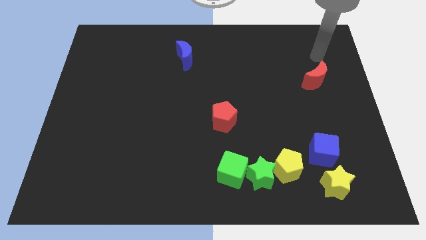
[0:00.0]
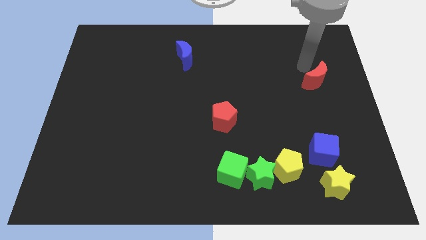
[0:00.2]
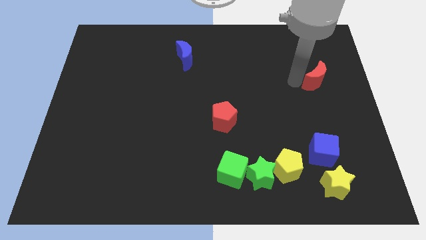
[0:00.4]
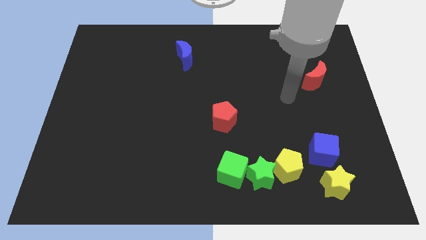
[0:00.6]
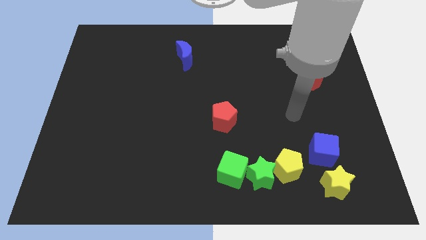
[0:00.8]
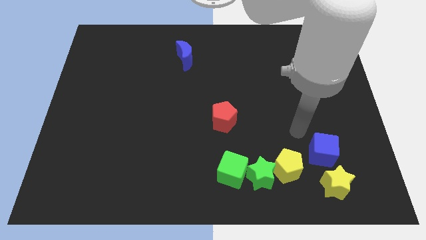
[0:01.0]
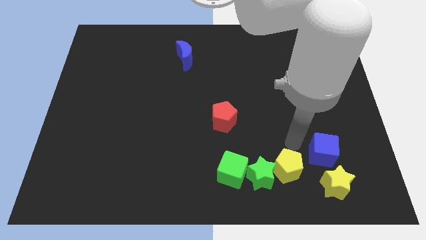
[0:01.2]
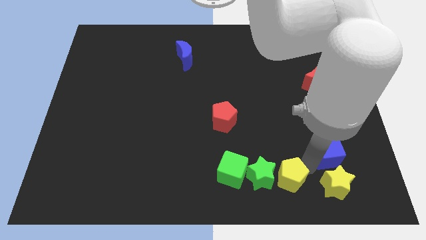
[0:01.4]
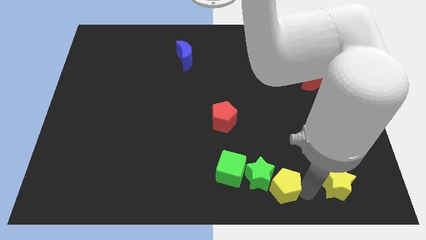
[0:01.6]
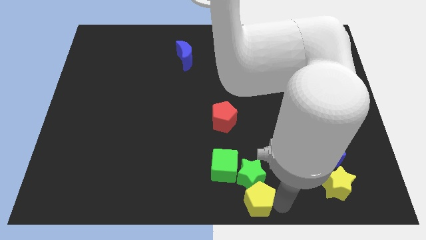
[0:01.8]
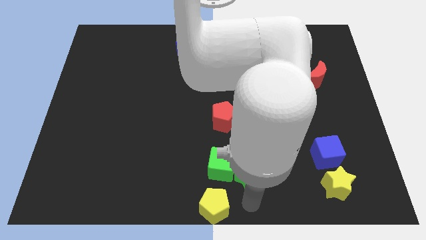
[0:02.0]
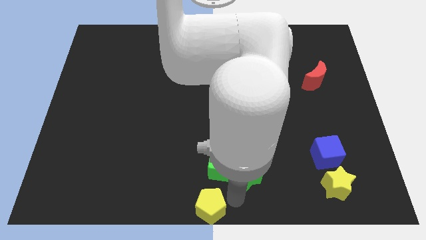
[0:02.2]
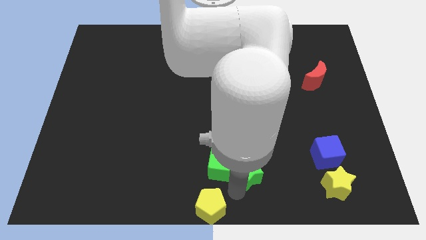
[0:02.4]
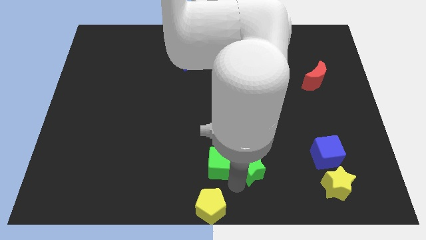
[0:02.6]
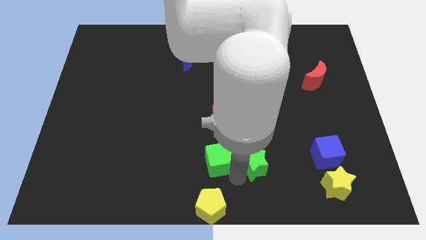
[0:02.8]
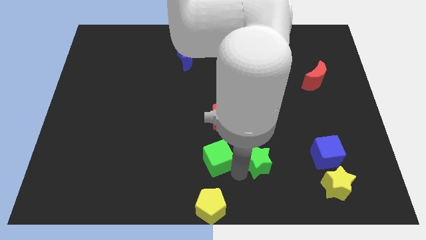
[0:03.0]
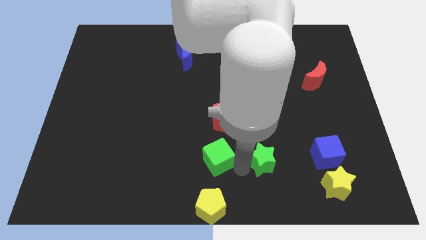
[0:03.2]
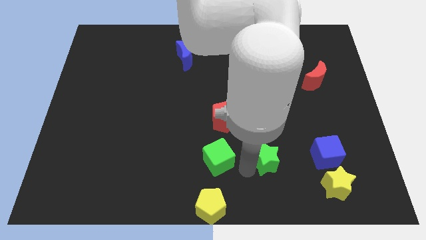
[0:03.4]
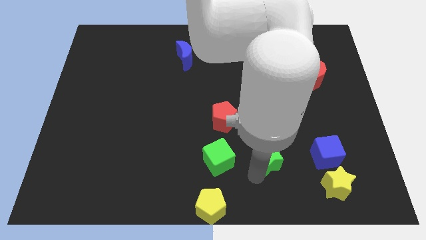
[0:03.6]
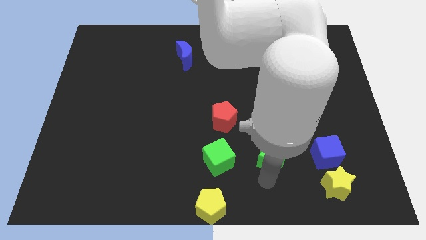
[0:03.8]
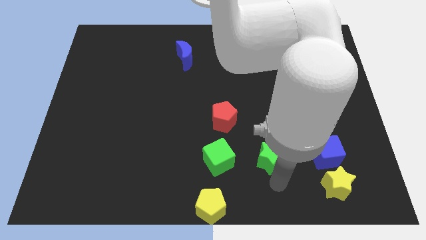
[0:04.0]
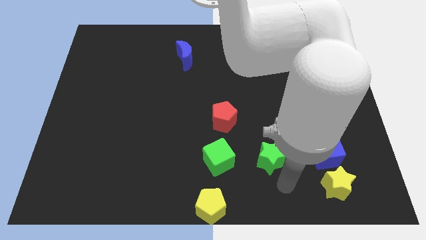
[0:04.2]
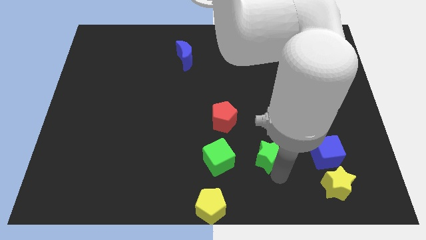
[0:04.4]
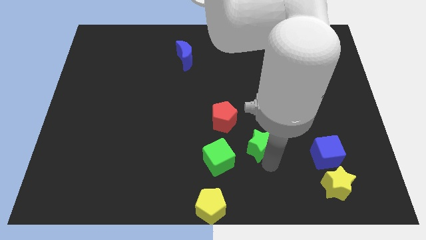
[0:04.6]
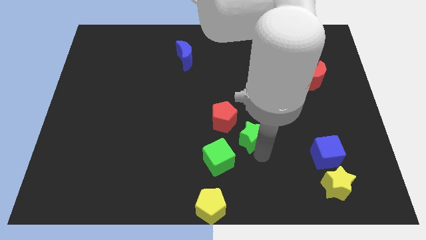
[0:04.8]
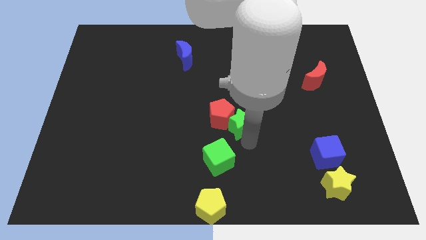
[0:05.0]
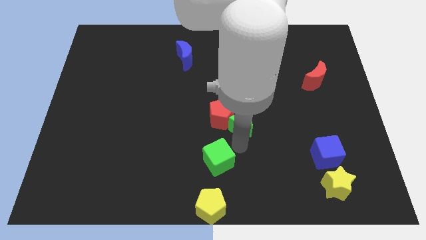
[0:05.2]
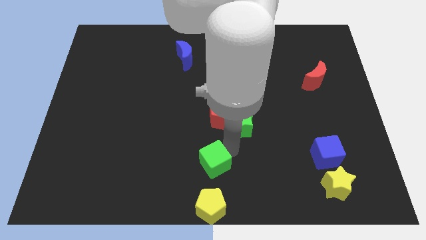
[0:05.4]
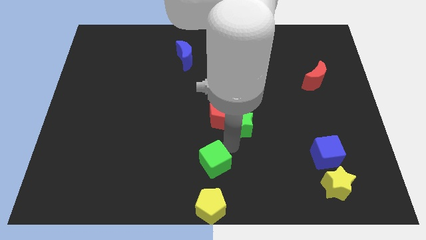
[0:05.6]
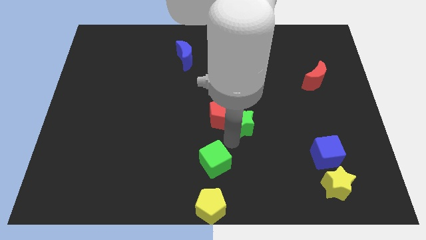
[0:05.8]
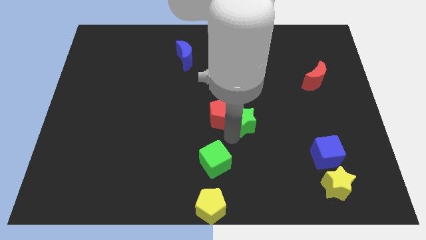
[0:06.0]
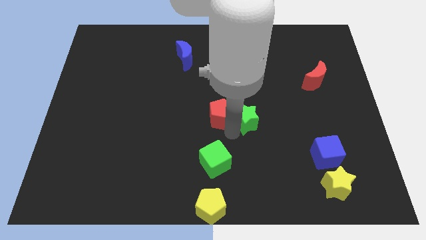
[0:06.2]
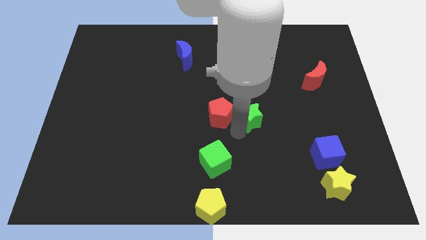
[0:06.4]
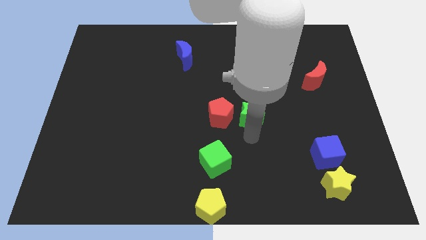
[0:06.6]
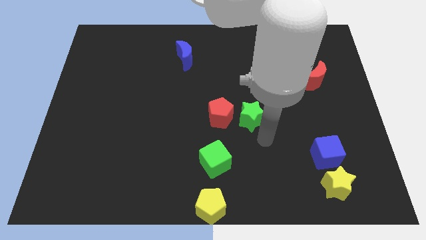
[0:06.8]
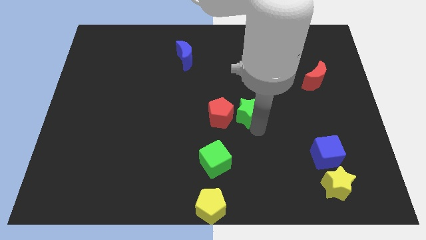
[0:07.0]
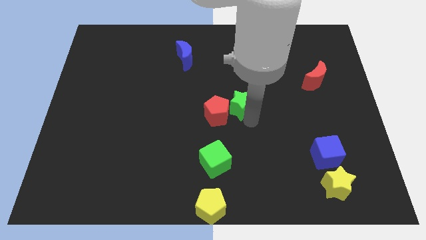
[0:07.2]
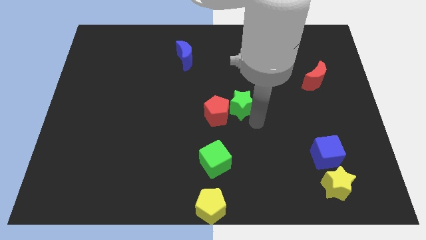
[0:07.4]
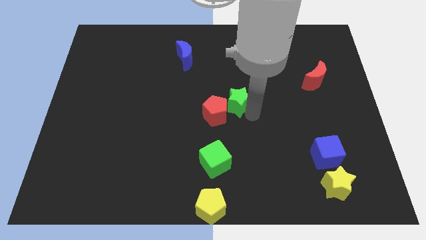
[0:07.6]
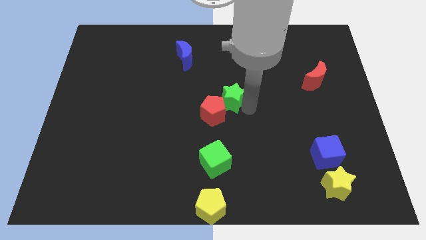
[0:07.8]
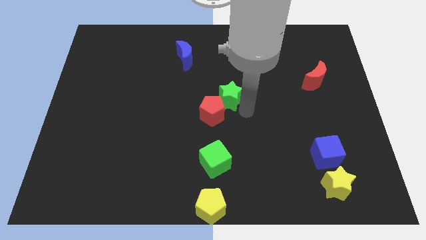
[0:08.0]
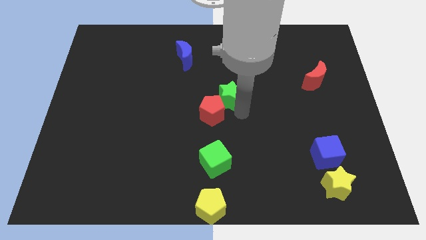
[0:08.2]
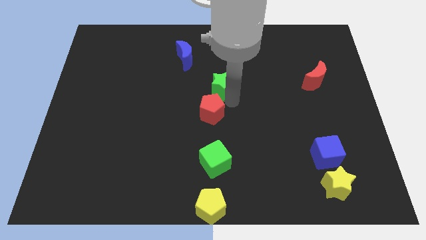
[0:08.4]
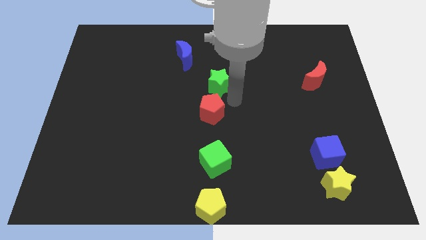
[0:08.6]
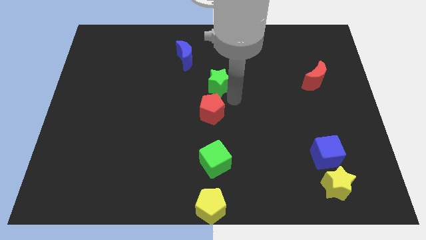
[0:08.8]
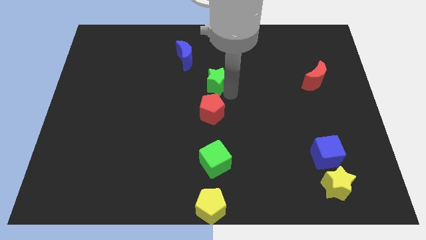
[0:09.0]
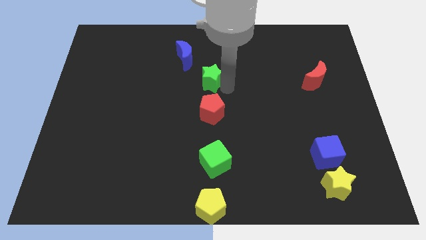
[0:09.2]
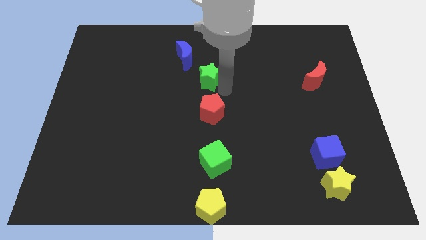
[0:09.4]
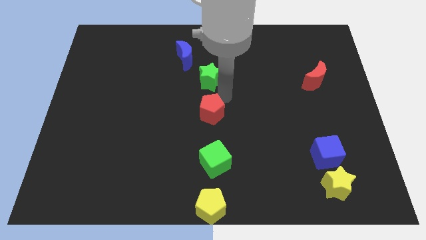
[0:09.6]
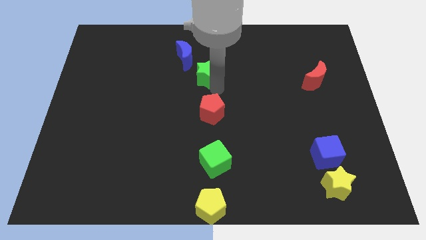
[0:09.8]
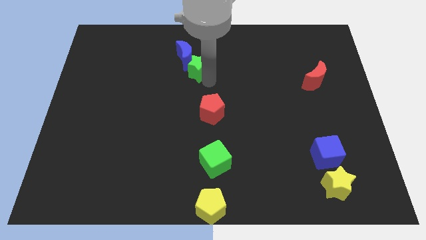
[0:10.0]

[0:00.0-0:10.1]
push the green star to the blue moon

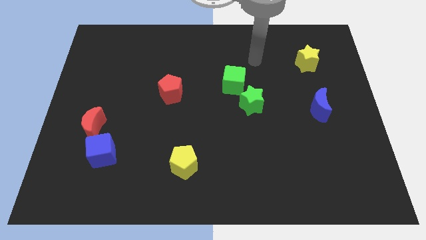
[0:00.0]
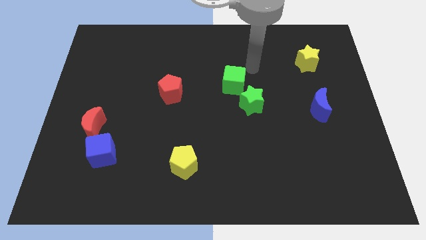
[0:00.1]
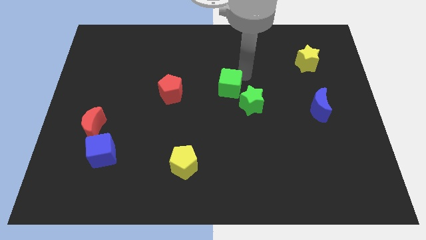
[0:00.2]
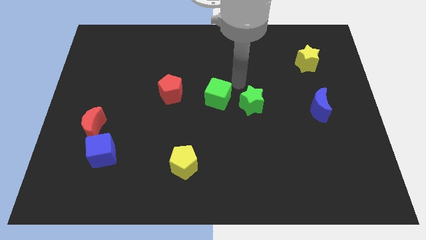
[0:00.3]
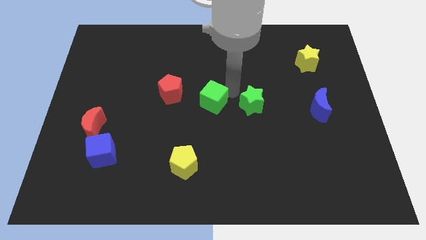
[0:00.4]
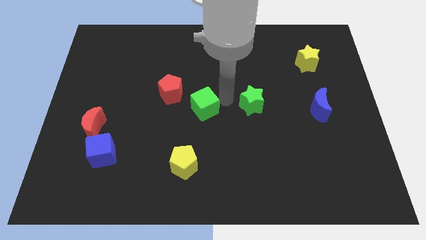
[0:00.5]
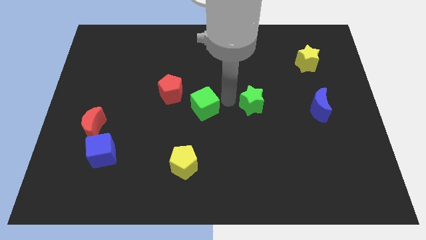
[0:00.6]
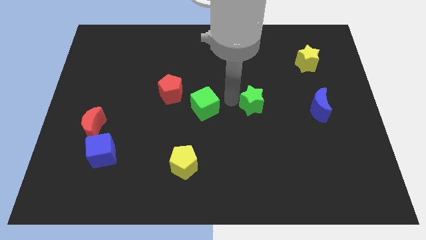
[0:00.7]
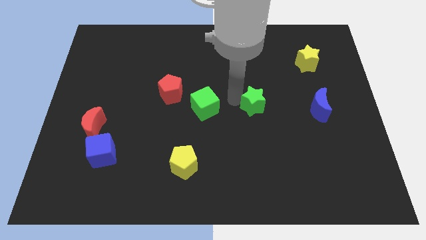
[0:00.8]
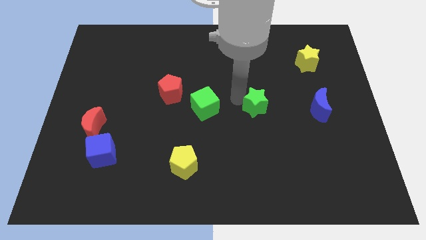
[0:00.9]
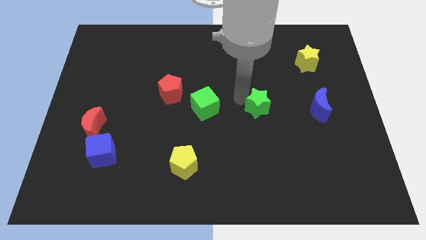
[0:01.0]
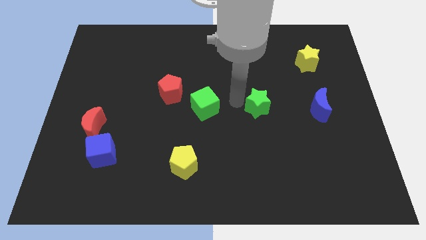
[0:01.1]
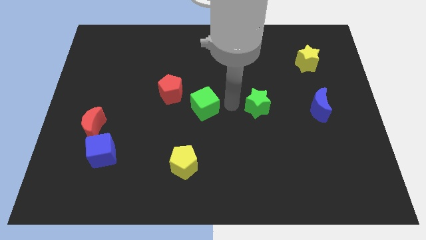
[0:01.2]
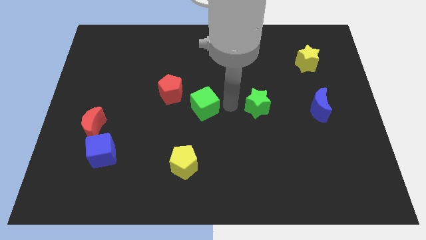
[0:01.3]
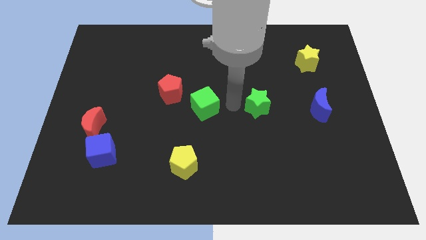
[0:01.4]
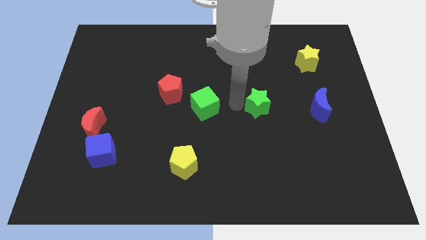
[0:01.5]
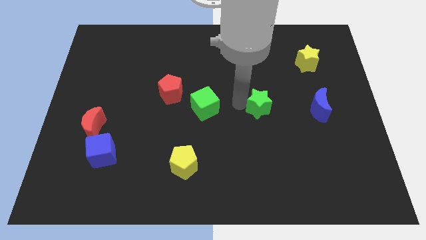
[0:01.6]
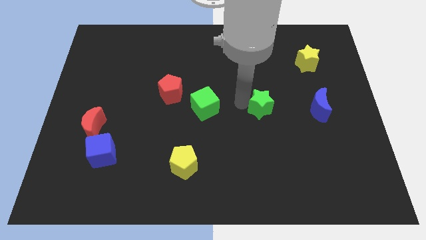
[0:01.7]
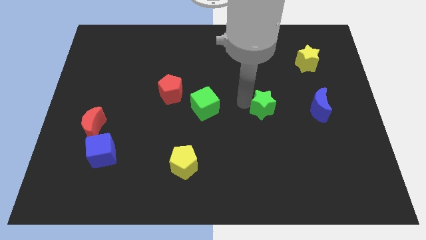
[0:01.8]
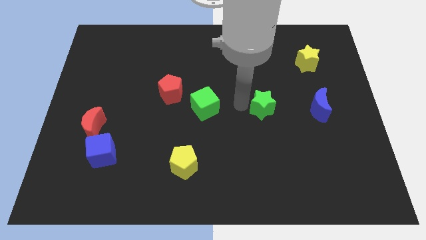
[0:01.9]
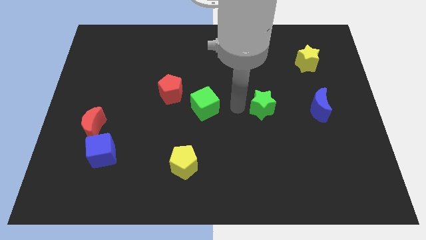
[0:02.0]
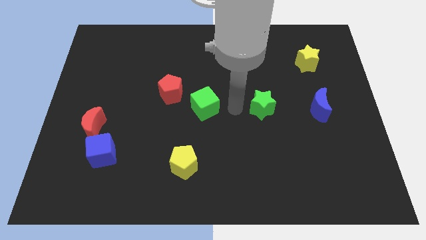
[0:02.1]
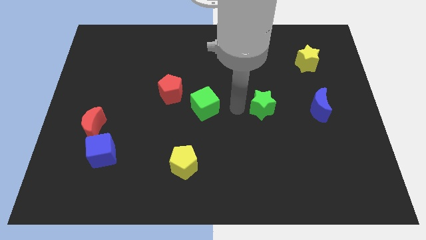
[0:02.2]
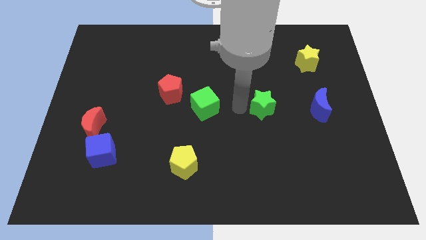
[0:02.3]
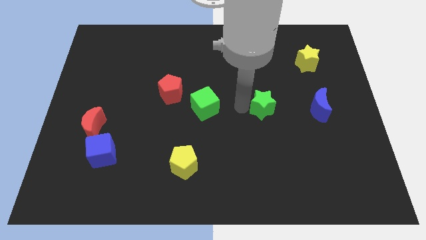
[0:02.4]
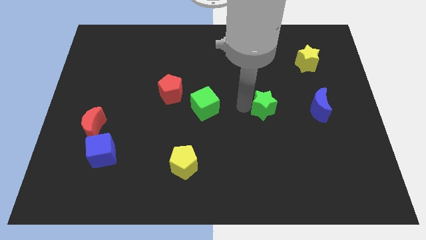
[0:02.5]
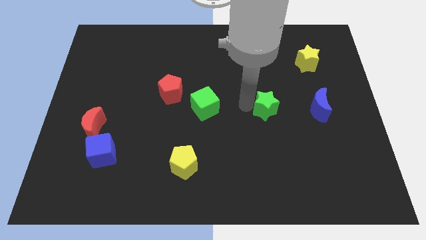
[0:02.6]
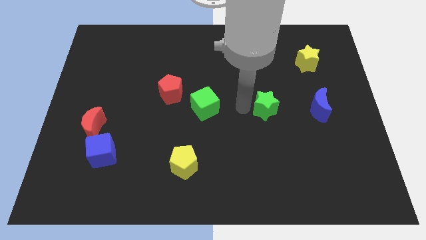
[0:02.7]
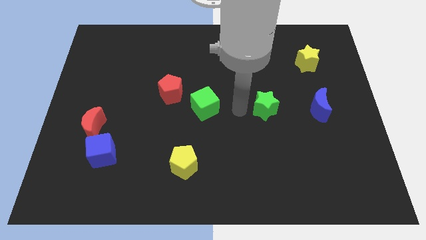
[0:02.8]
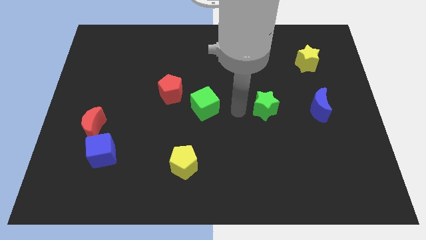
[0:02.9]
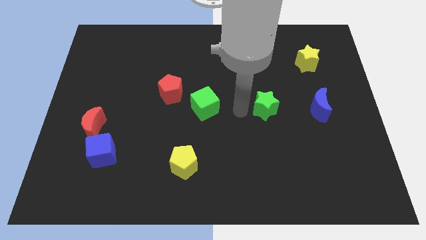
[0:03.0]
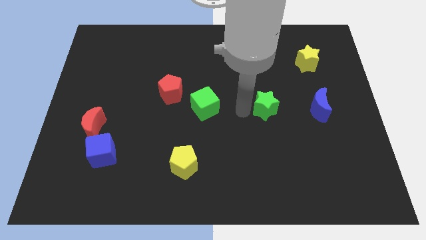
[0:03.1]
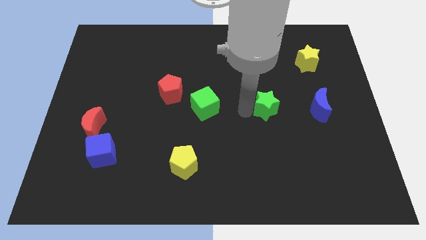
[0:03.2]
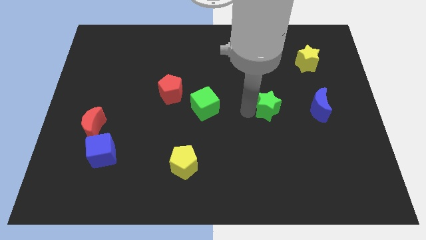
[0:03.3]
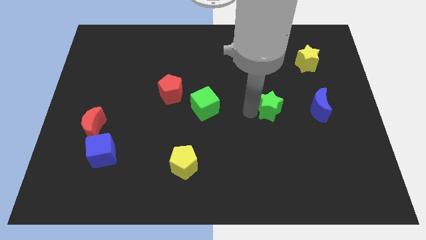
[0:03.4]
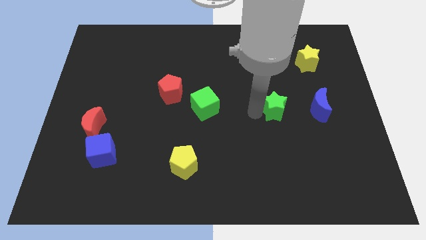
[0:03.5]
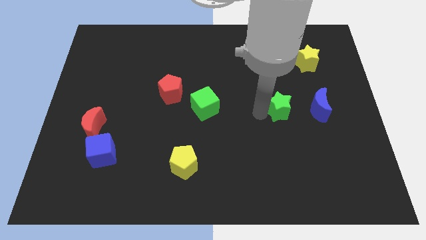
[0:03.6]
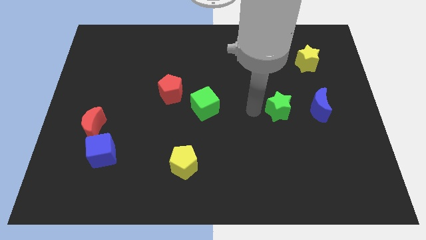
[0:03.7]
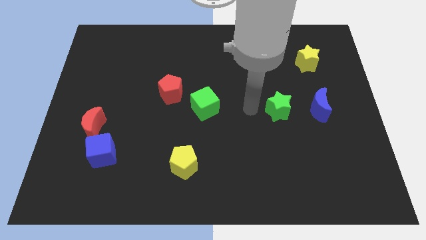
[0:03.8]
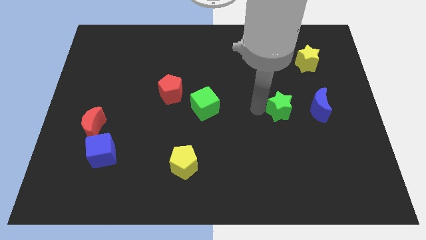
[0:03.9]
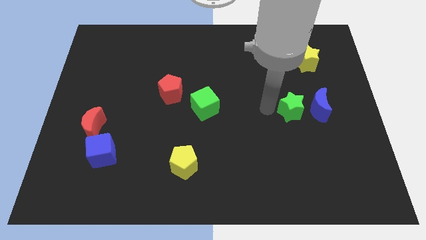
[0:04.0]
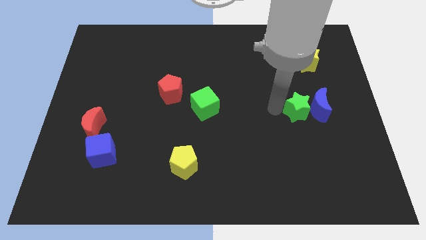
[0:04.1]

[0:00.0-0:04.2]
slide the green star close to the blue moon
